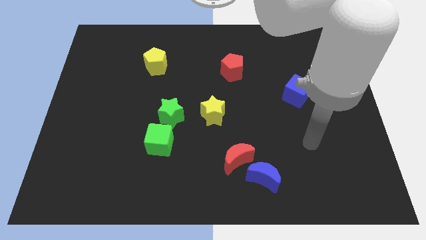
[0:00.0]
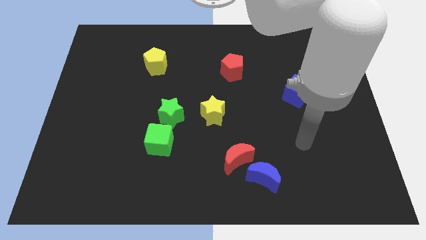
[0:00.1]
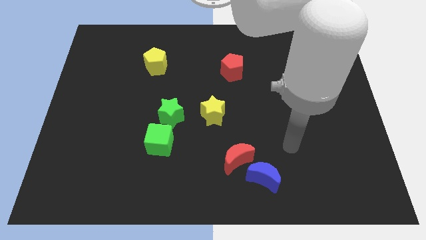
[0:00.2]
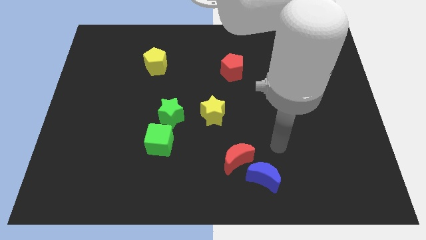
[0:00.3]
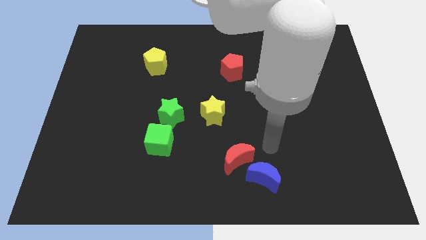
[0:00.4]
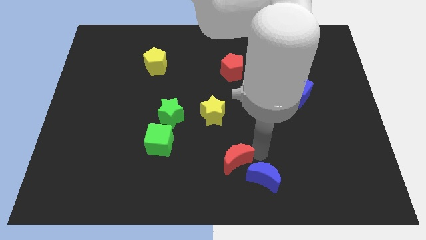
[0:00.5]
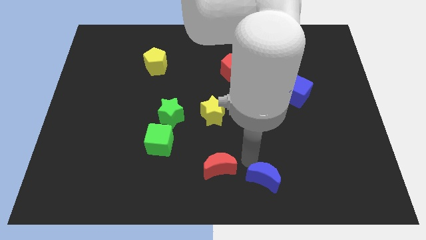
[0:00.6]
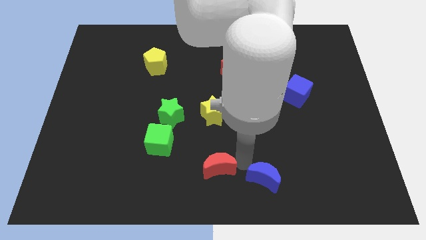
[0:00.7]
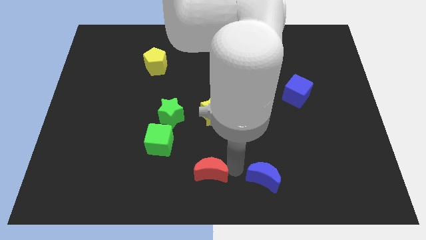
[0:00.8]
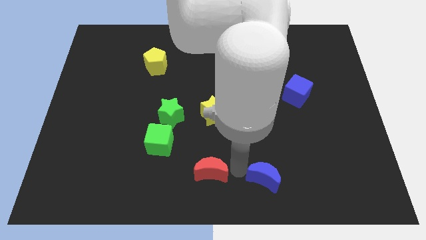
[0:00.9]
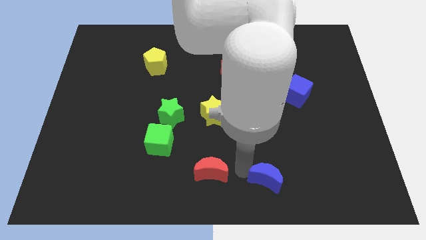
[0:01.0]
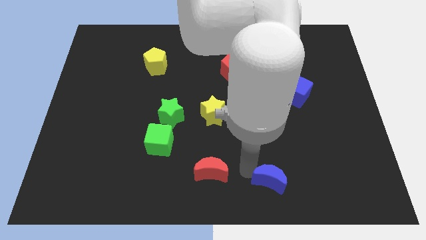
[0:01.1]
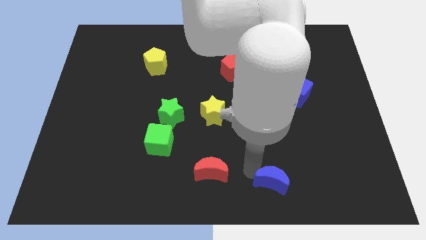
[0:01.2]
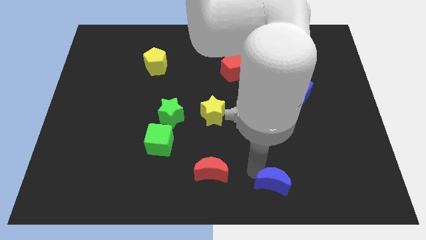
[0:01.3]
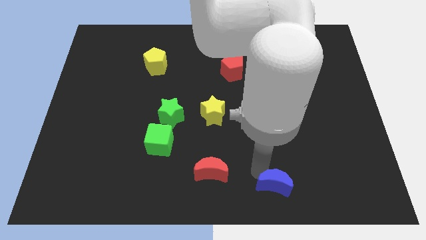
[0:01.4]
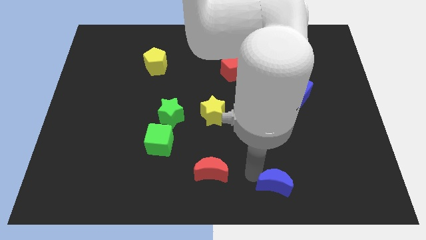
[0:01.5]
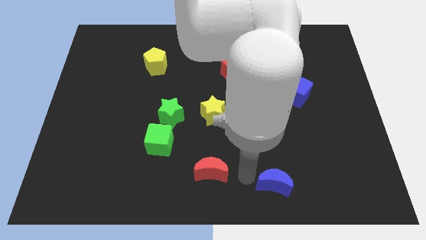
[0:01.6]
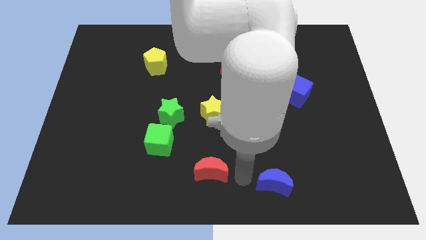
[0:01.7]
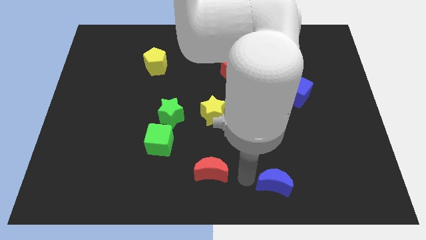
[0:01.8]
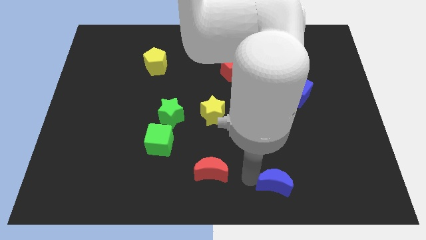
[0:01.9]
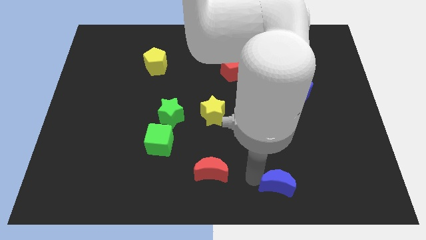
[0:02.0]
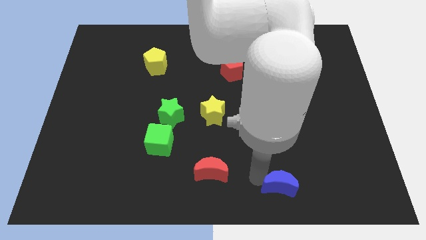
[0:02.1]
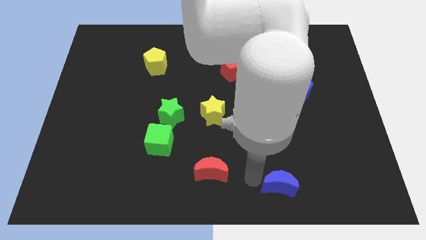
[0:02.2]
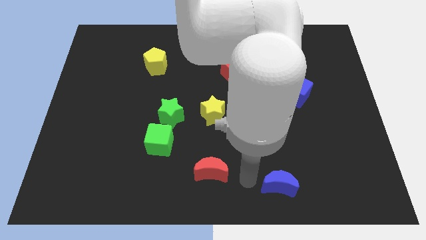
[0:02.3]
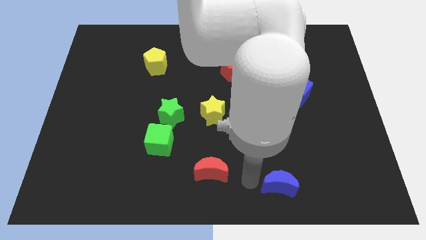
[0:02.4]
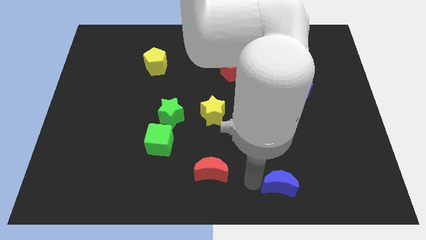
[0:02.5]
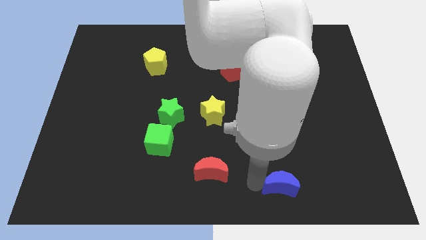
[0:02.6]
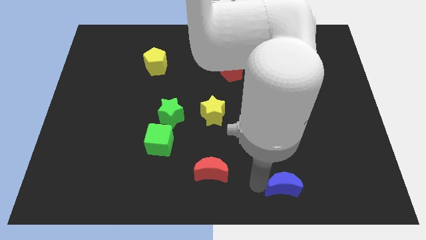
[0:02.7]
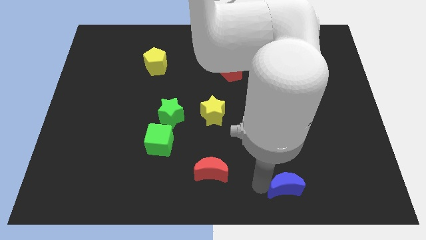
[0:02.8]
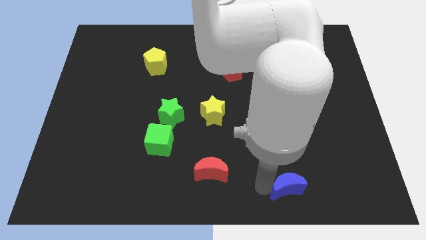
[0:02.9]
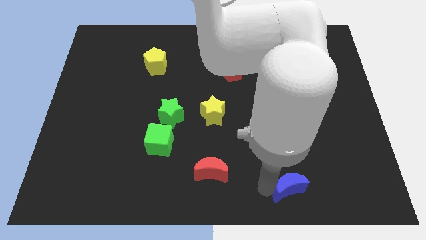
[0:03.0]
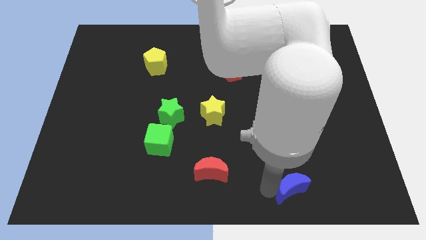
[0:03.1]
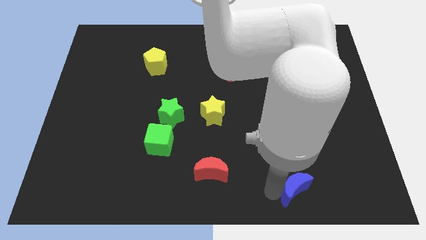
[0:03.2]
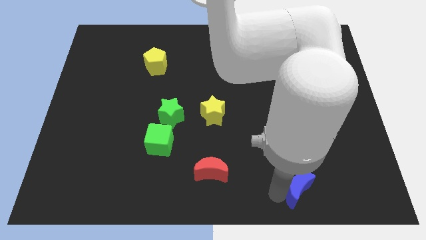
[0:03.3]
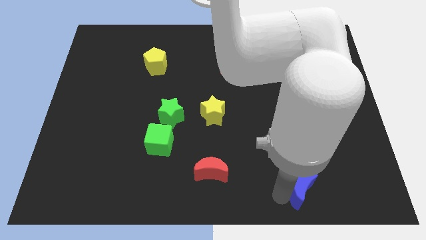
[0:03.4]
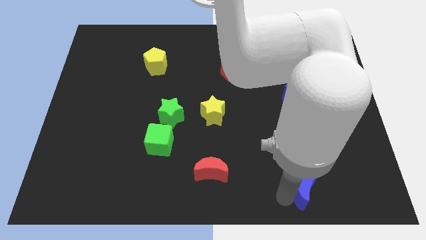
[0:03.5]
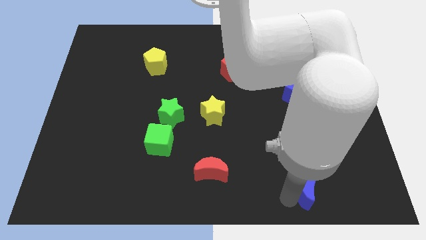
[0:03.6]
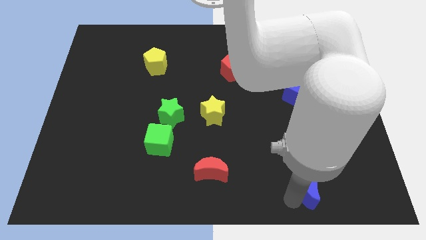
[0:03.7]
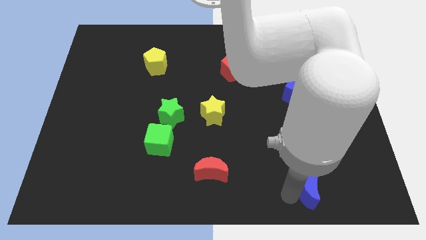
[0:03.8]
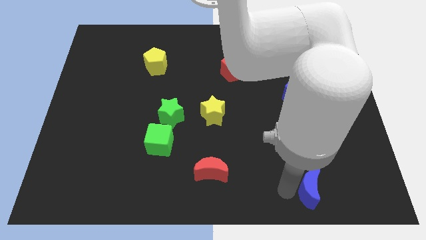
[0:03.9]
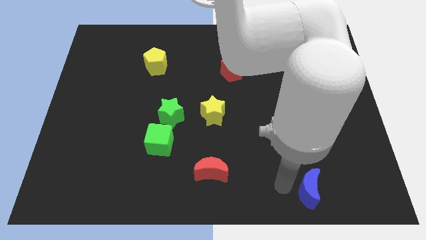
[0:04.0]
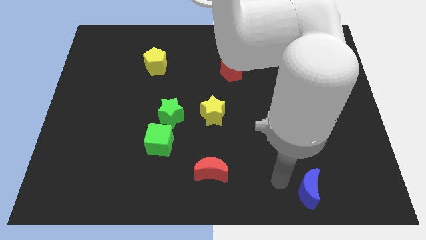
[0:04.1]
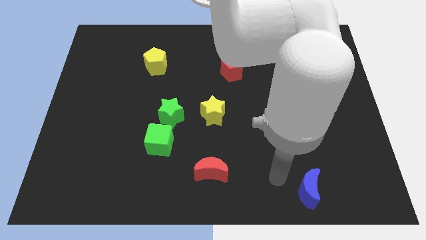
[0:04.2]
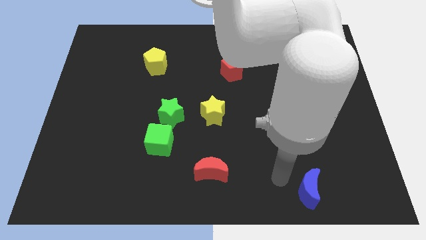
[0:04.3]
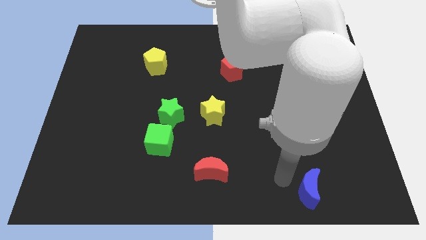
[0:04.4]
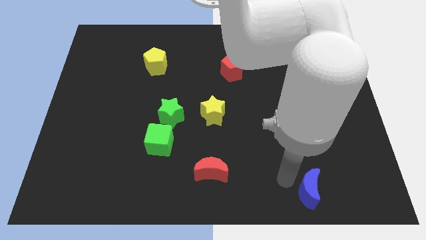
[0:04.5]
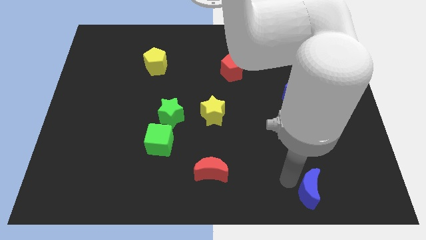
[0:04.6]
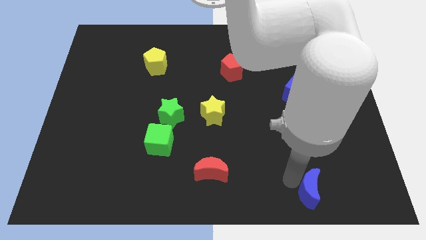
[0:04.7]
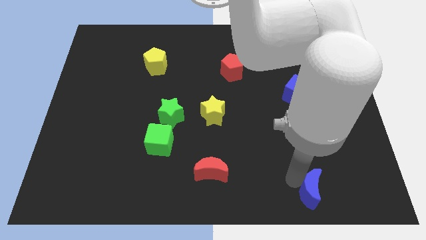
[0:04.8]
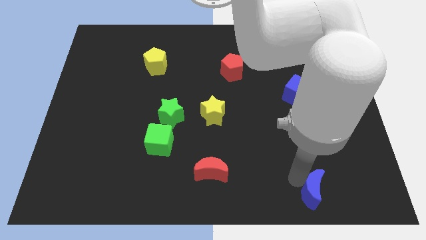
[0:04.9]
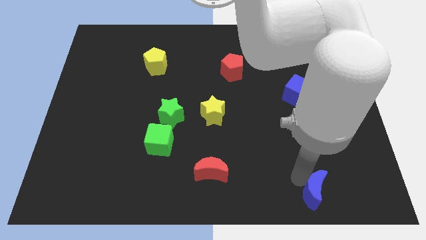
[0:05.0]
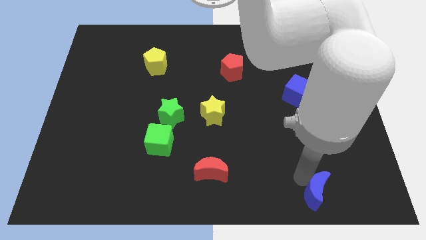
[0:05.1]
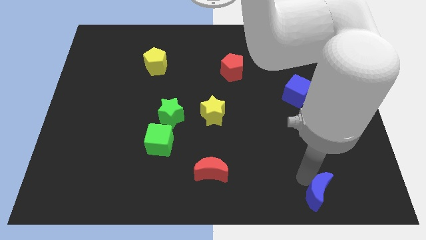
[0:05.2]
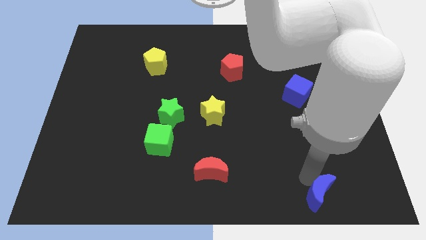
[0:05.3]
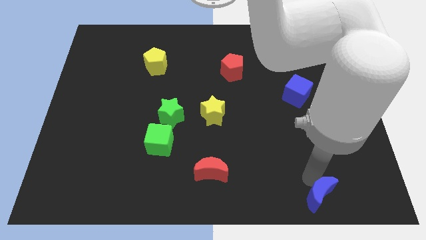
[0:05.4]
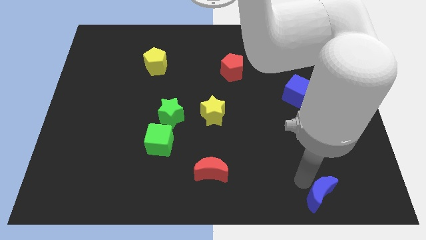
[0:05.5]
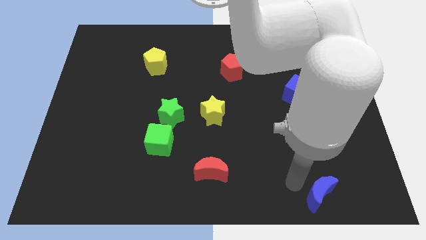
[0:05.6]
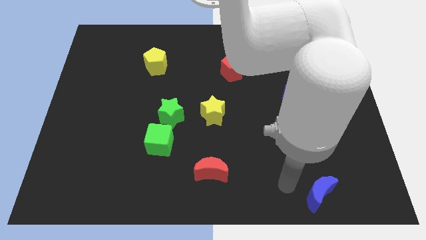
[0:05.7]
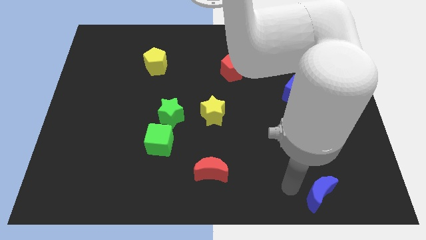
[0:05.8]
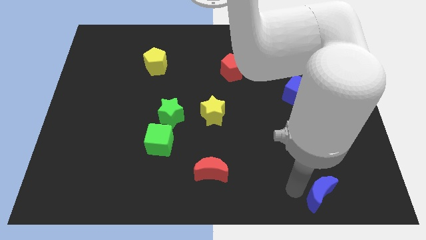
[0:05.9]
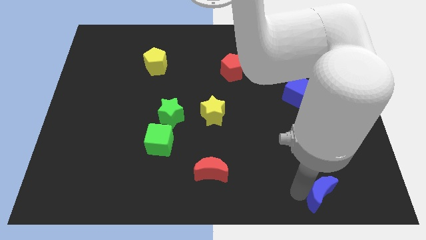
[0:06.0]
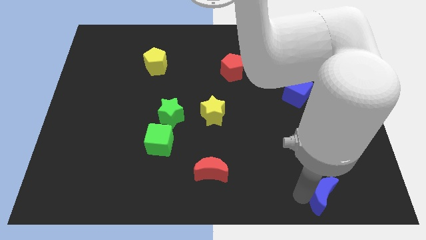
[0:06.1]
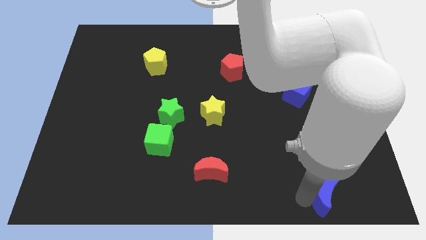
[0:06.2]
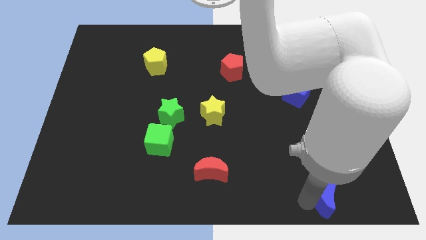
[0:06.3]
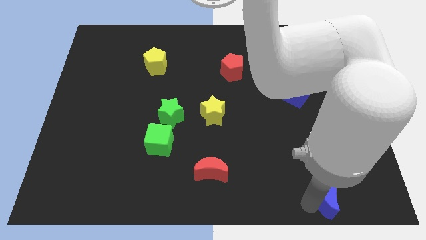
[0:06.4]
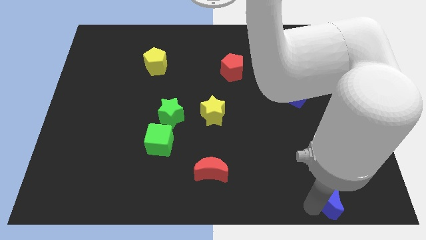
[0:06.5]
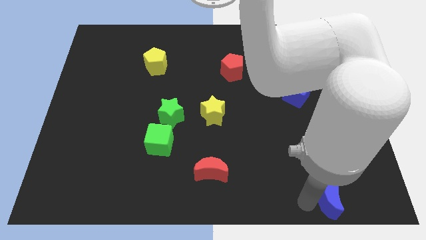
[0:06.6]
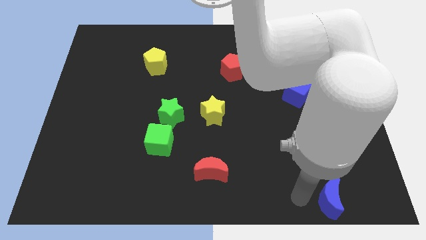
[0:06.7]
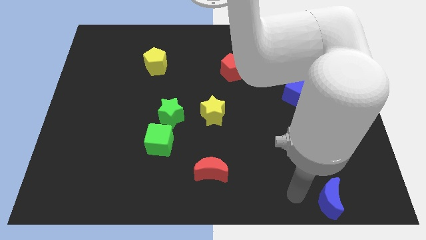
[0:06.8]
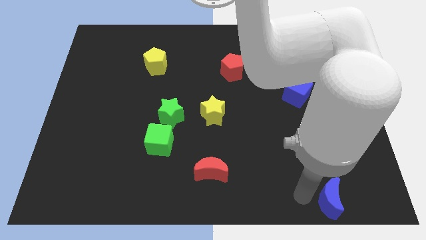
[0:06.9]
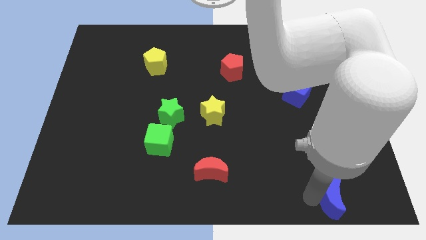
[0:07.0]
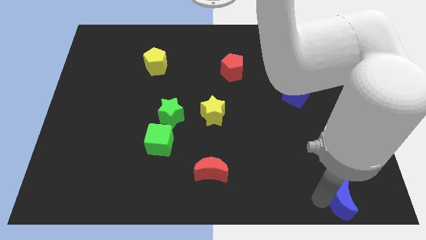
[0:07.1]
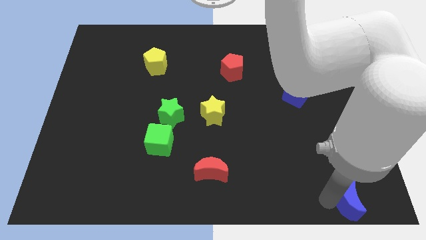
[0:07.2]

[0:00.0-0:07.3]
move the blue moon to the lower right corner
